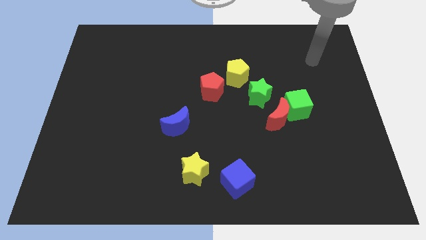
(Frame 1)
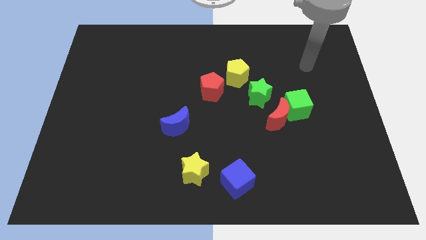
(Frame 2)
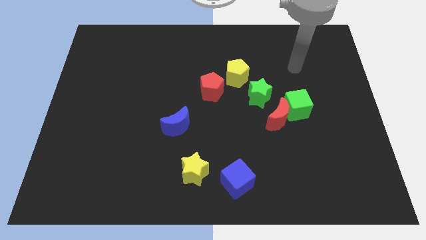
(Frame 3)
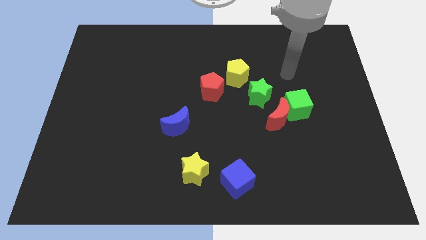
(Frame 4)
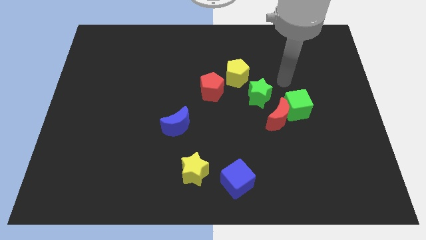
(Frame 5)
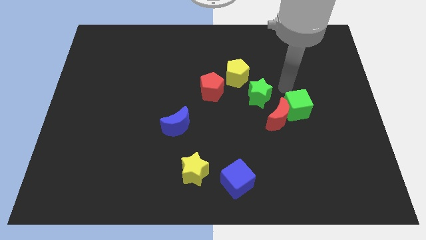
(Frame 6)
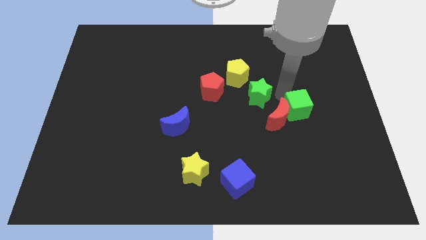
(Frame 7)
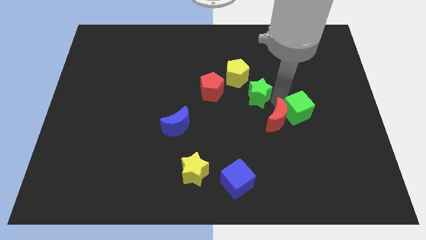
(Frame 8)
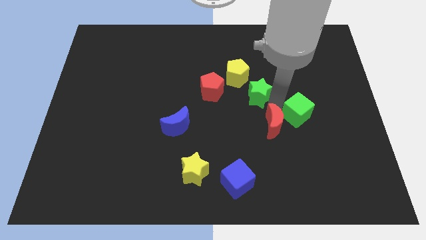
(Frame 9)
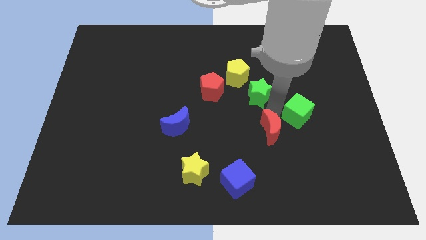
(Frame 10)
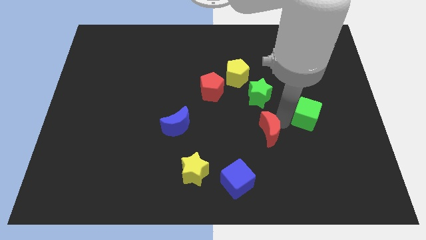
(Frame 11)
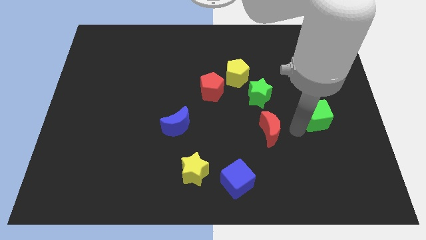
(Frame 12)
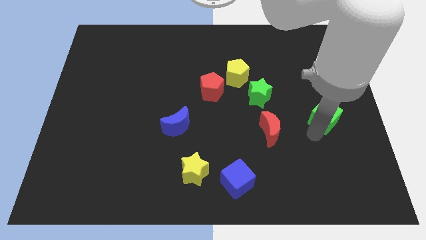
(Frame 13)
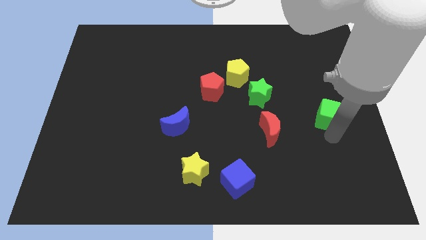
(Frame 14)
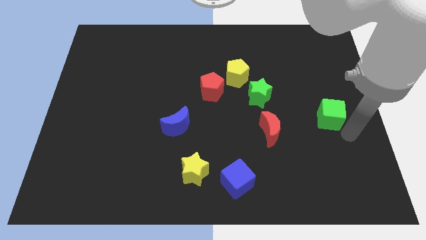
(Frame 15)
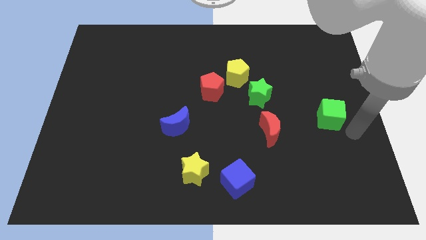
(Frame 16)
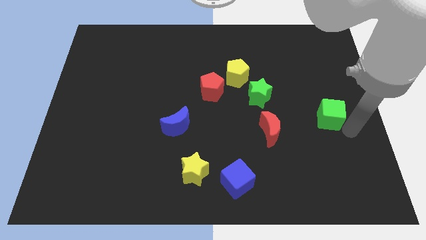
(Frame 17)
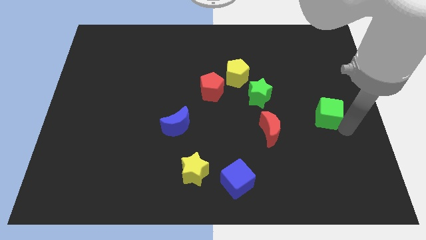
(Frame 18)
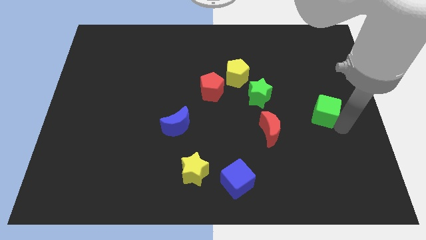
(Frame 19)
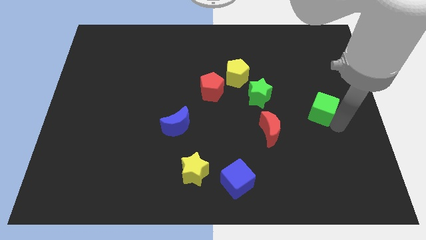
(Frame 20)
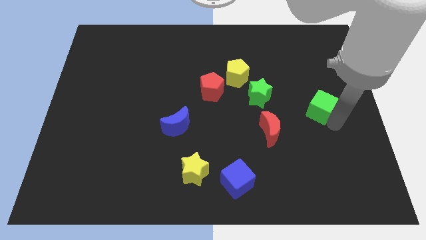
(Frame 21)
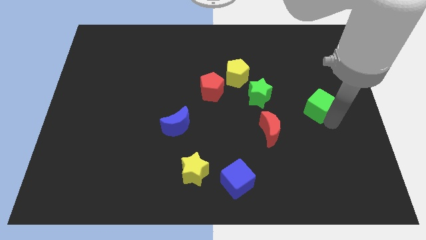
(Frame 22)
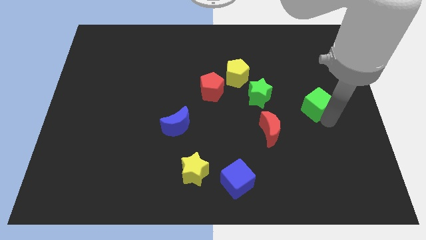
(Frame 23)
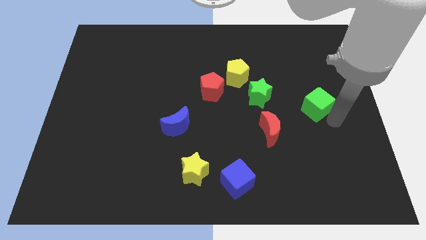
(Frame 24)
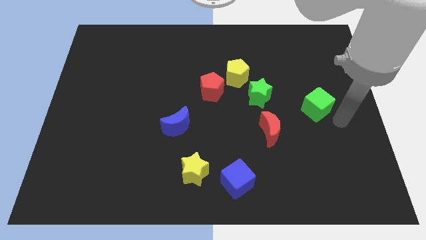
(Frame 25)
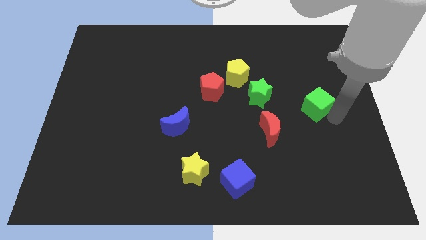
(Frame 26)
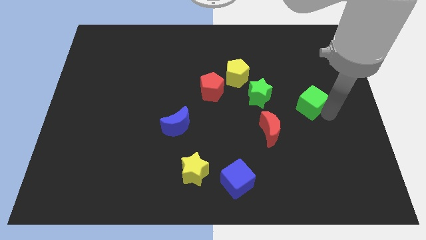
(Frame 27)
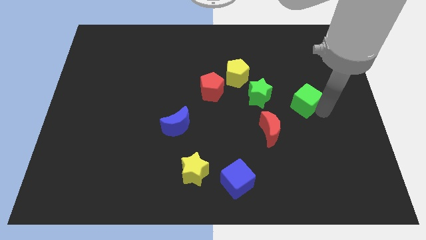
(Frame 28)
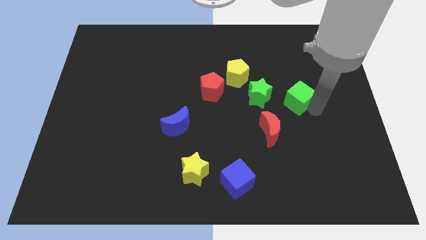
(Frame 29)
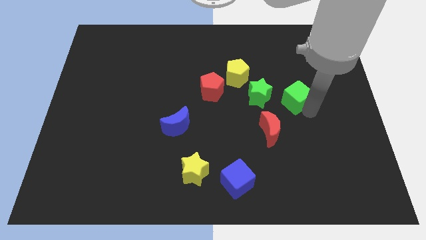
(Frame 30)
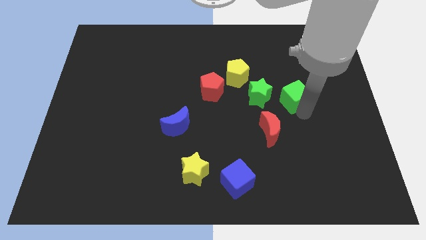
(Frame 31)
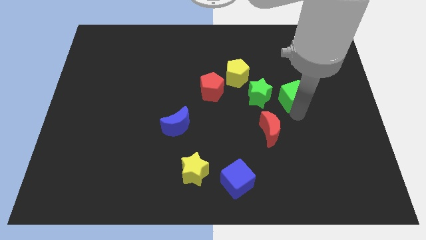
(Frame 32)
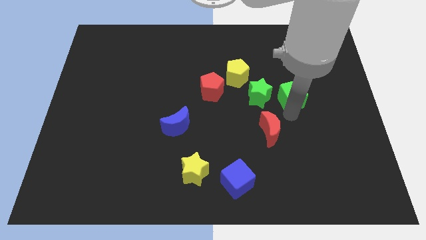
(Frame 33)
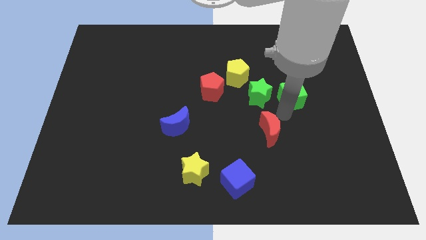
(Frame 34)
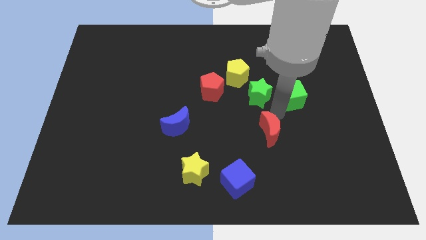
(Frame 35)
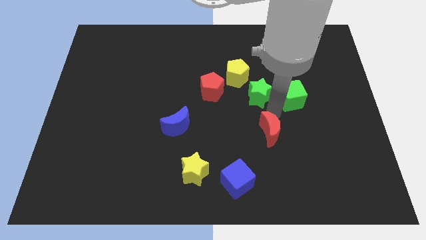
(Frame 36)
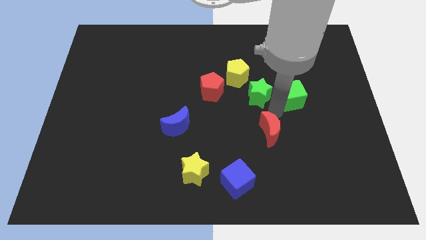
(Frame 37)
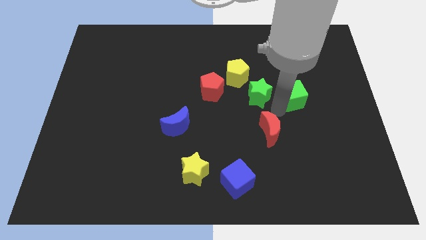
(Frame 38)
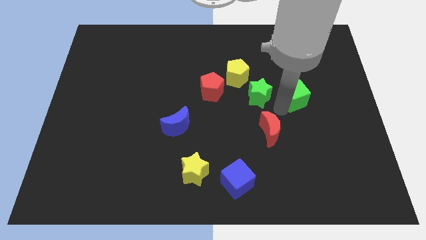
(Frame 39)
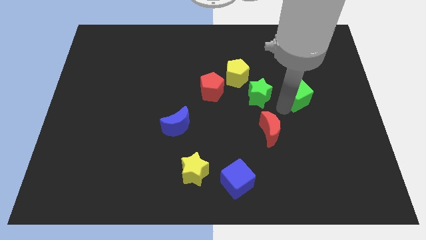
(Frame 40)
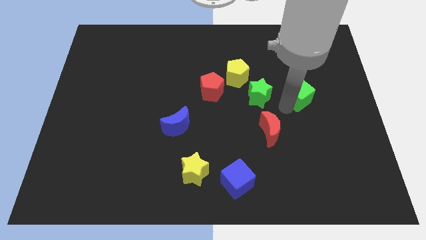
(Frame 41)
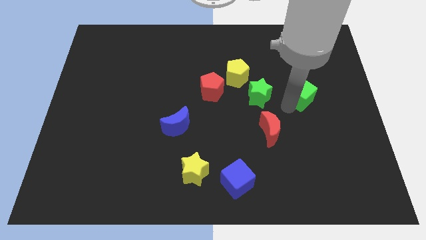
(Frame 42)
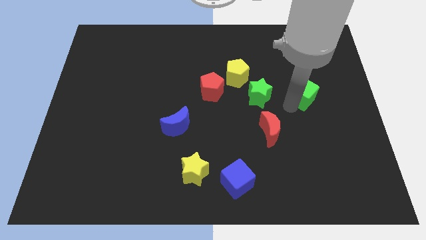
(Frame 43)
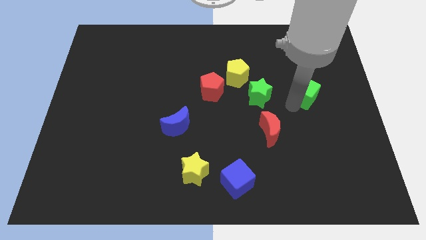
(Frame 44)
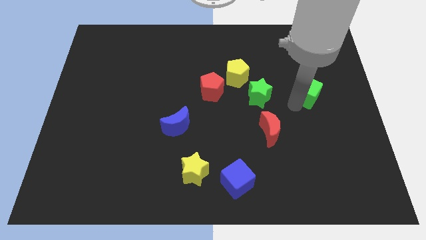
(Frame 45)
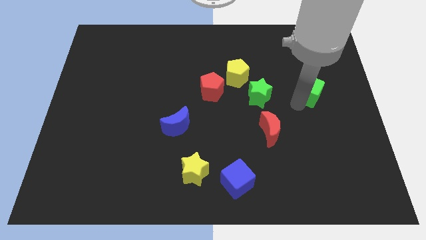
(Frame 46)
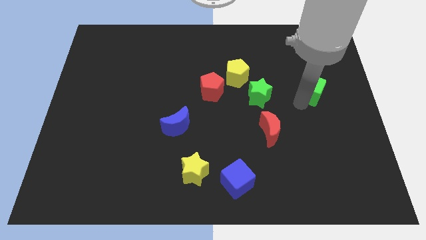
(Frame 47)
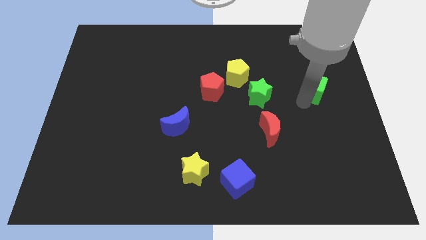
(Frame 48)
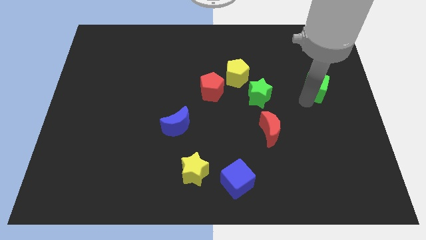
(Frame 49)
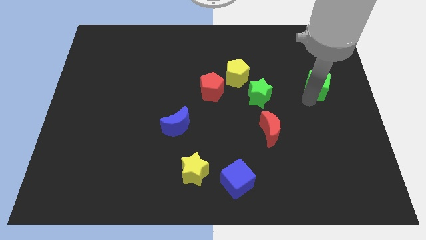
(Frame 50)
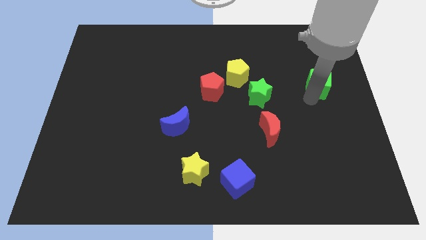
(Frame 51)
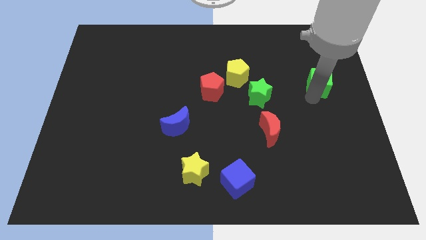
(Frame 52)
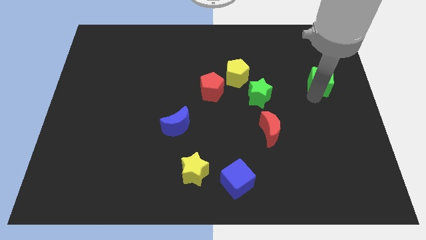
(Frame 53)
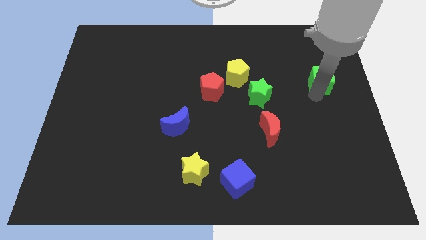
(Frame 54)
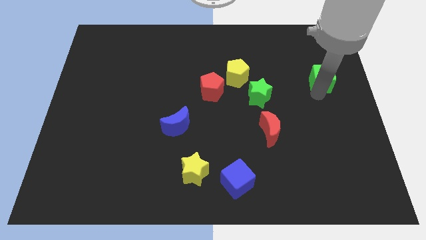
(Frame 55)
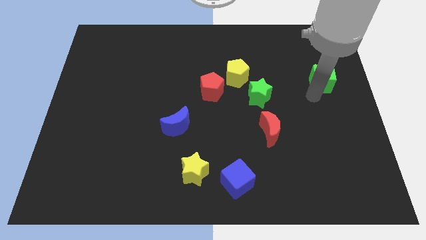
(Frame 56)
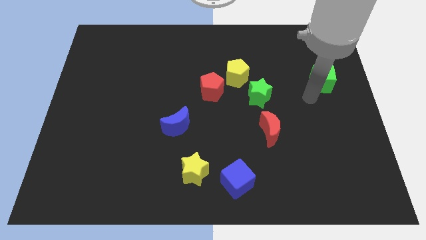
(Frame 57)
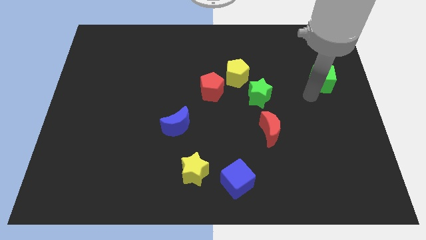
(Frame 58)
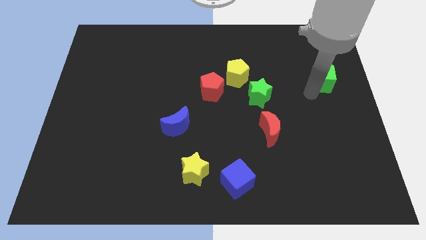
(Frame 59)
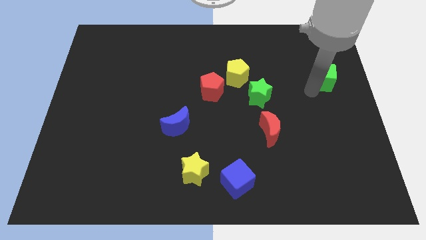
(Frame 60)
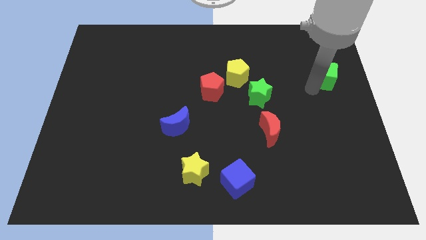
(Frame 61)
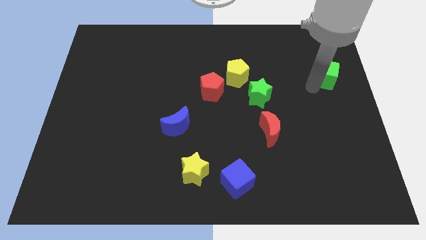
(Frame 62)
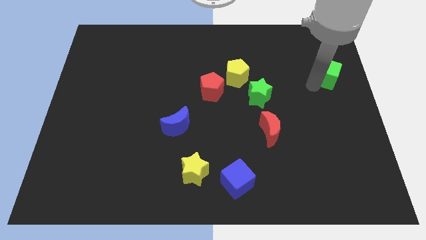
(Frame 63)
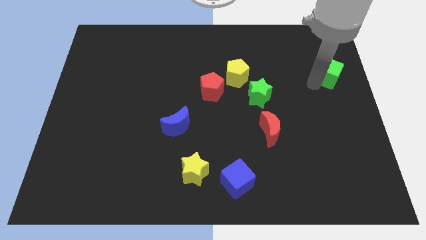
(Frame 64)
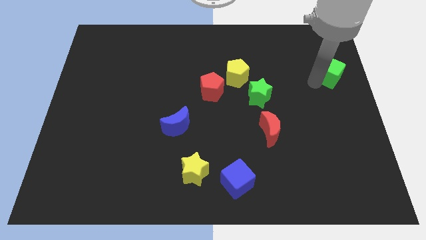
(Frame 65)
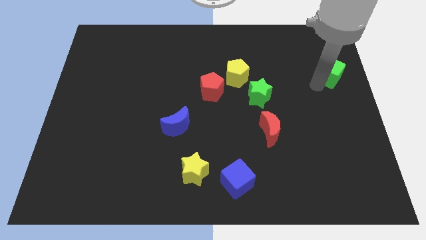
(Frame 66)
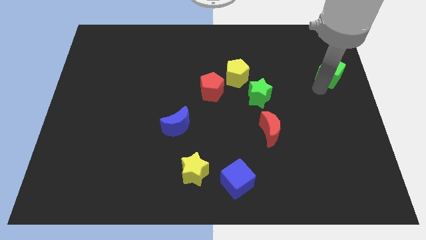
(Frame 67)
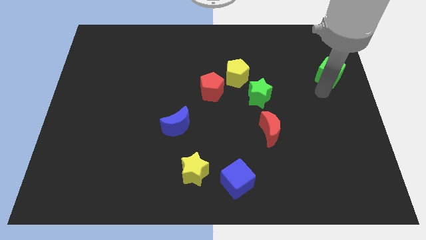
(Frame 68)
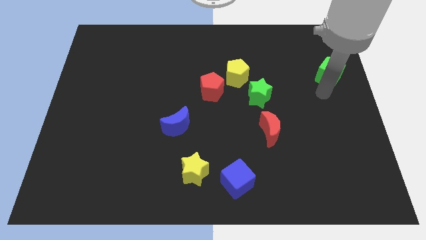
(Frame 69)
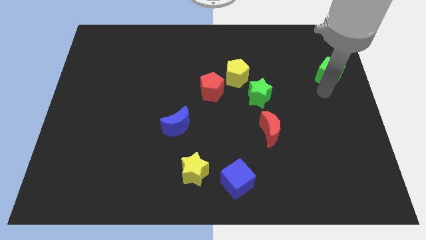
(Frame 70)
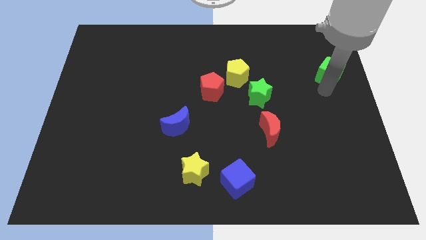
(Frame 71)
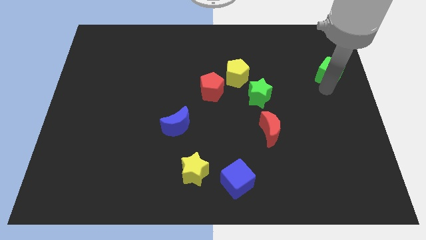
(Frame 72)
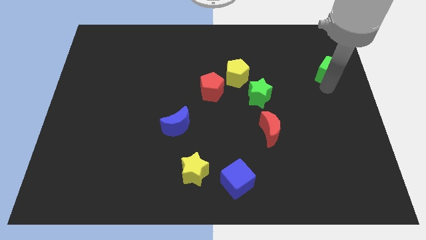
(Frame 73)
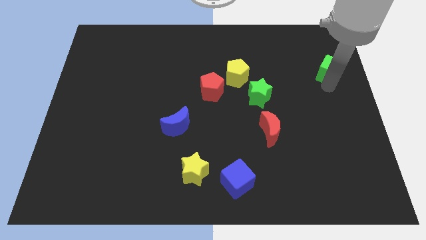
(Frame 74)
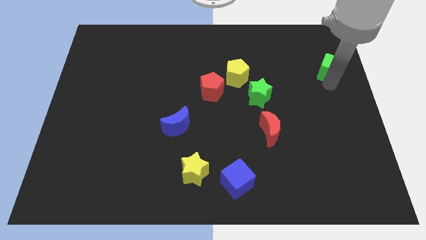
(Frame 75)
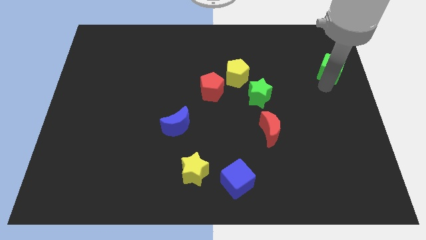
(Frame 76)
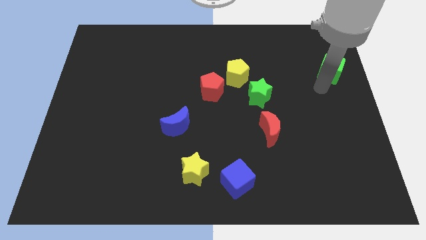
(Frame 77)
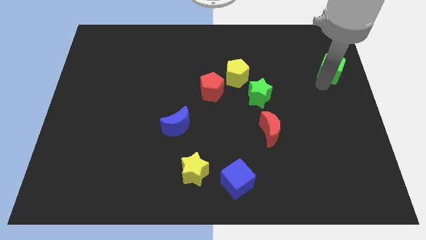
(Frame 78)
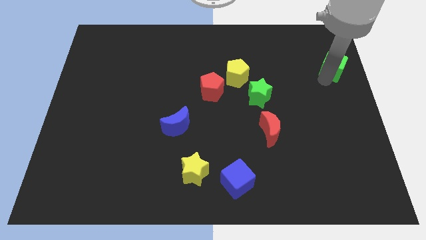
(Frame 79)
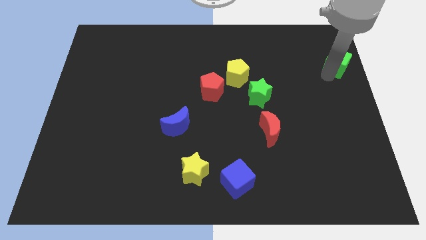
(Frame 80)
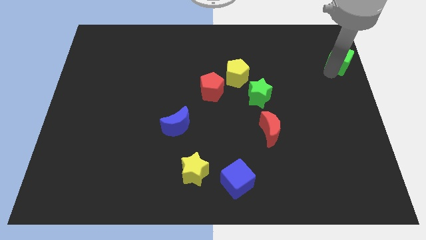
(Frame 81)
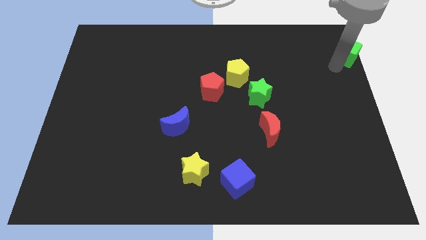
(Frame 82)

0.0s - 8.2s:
move the green cube to the top right corner
